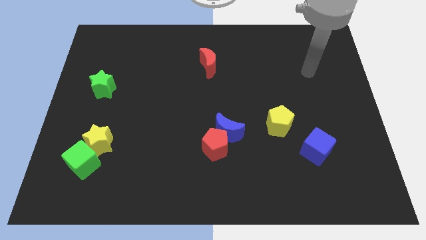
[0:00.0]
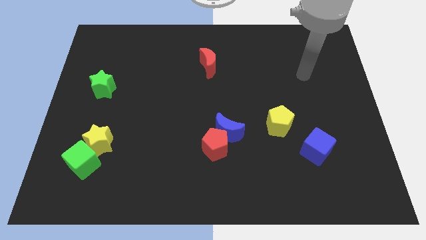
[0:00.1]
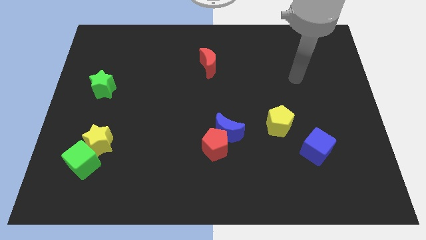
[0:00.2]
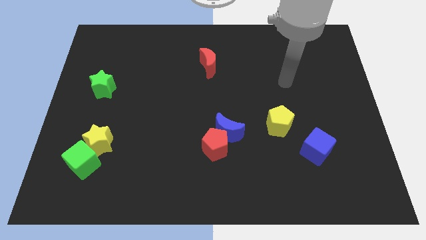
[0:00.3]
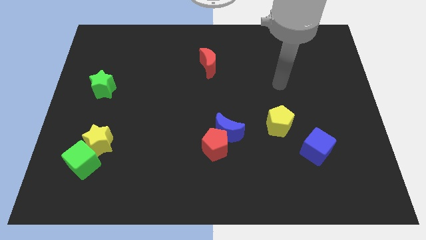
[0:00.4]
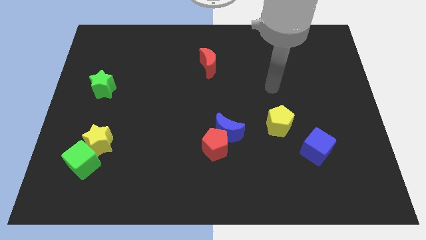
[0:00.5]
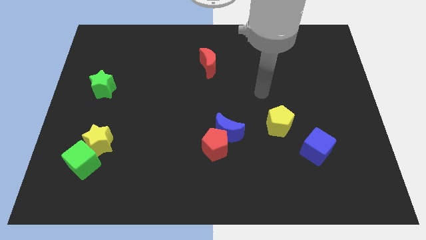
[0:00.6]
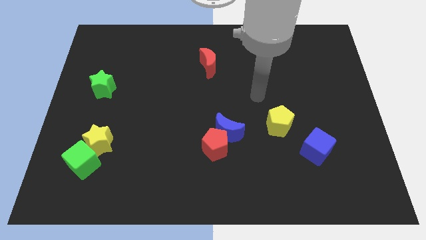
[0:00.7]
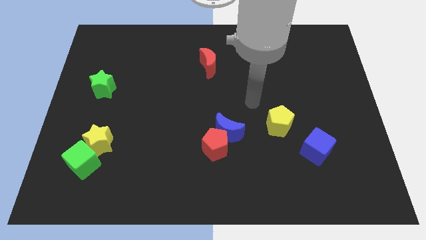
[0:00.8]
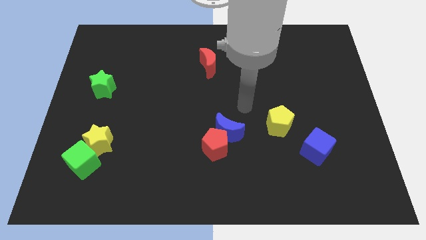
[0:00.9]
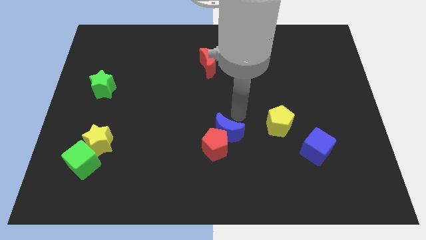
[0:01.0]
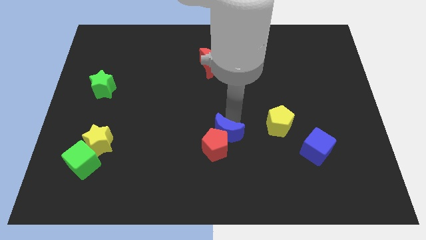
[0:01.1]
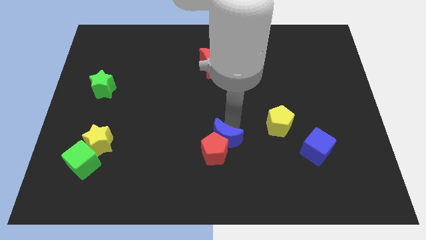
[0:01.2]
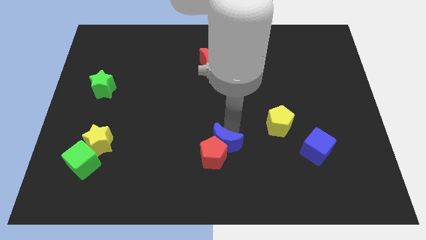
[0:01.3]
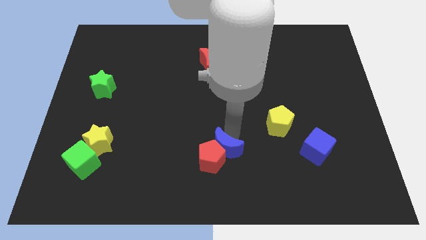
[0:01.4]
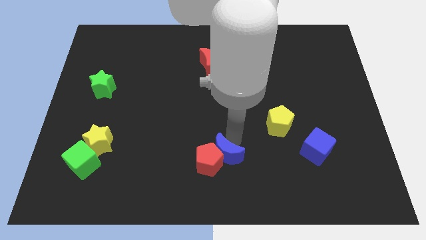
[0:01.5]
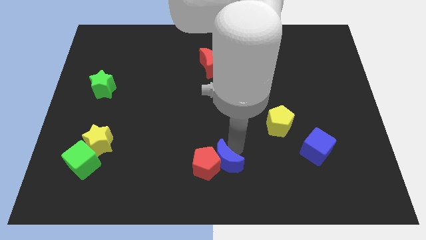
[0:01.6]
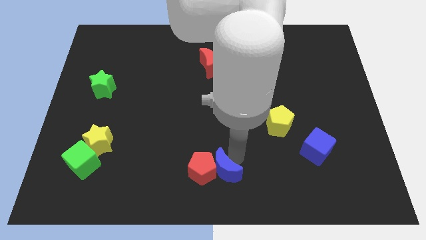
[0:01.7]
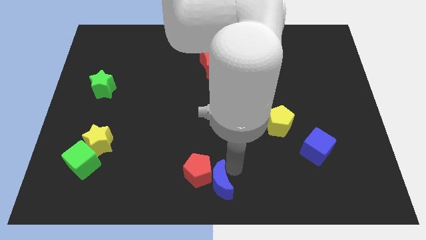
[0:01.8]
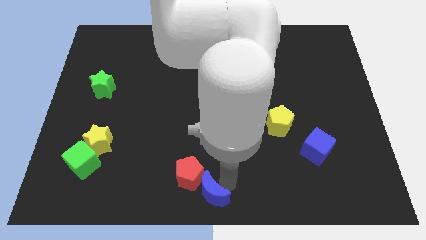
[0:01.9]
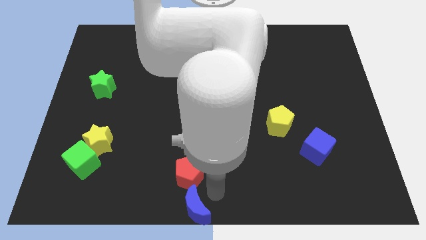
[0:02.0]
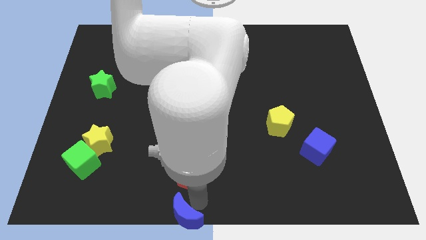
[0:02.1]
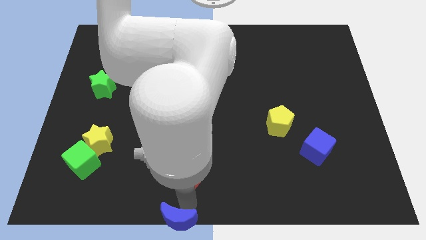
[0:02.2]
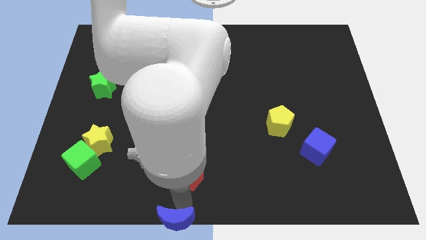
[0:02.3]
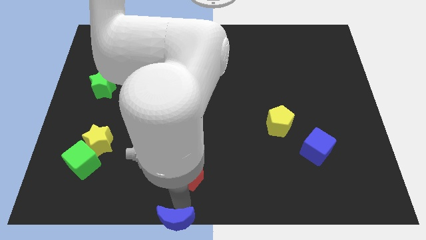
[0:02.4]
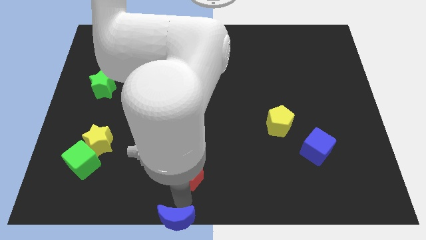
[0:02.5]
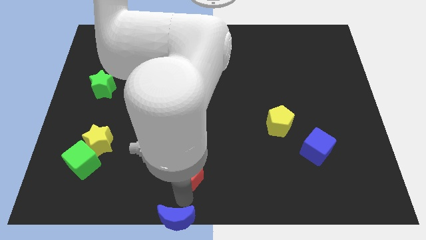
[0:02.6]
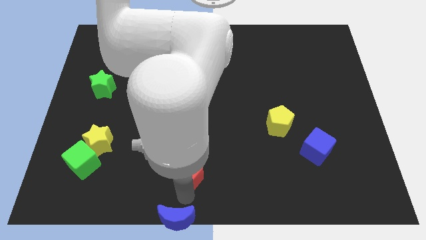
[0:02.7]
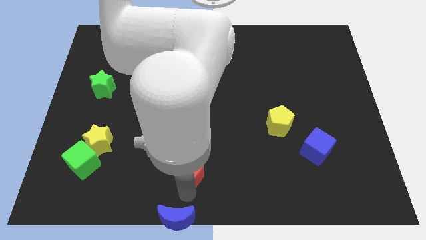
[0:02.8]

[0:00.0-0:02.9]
pull the red pentagon apart from the blue moon

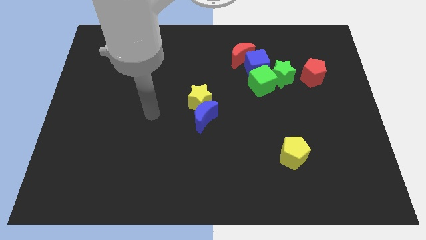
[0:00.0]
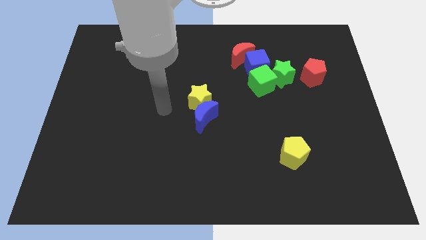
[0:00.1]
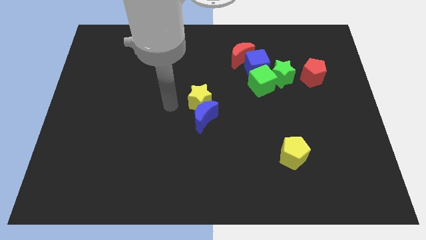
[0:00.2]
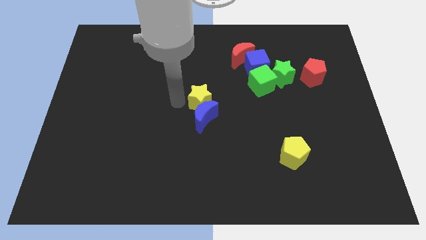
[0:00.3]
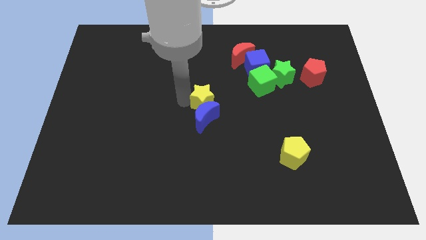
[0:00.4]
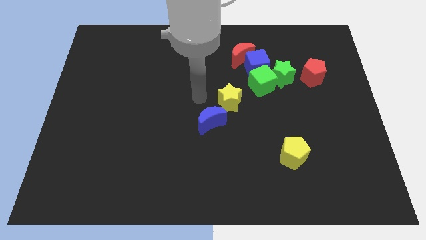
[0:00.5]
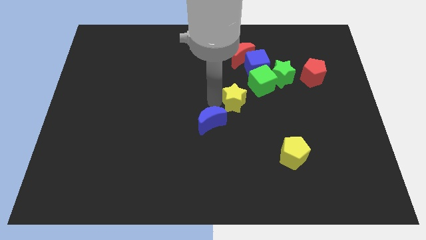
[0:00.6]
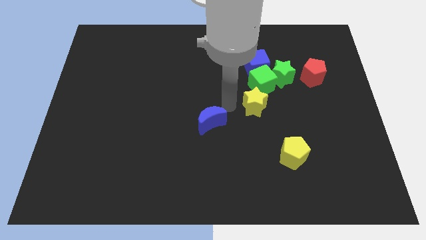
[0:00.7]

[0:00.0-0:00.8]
pull the blue moon apart from the yellow star

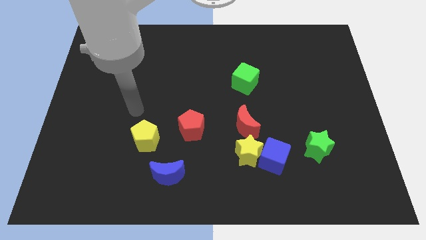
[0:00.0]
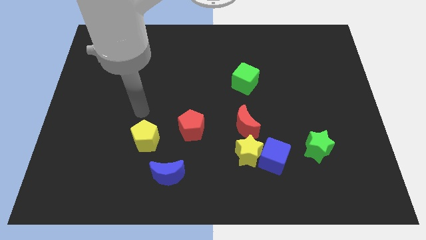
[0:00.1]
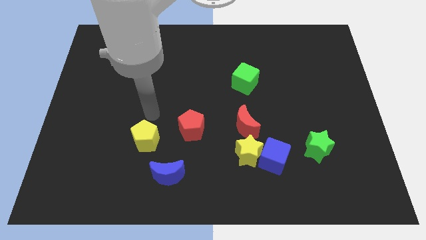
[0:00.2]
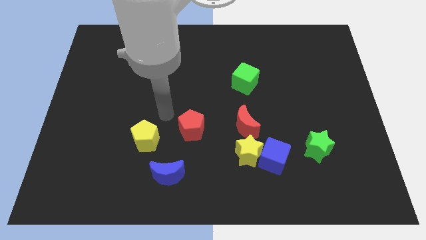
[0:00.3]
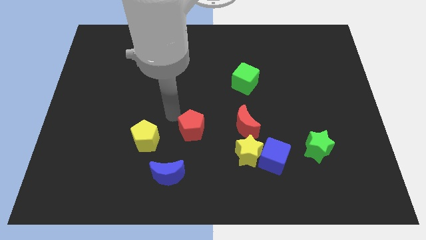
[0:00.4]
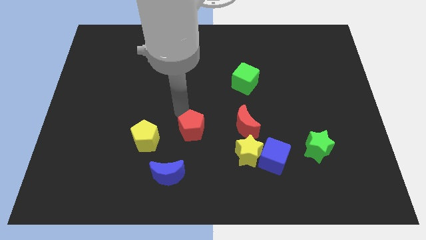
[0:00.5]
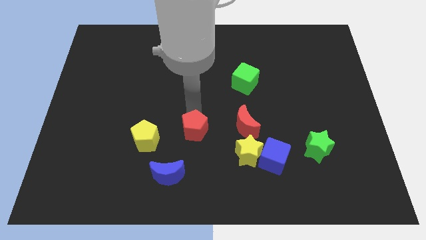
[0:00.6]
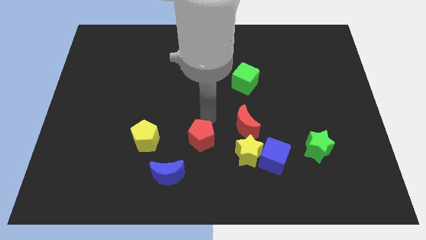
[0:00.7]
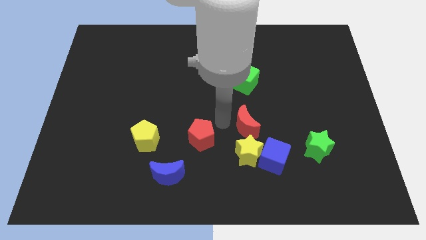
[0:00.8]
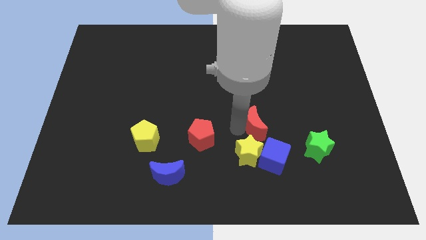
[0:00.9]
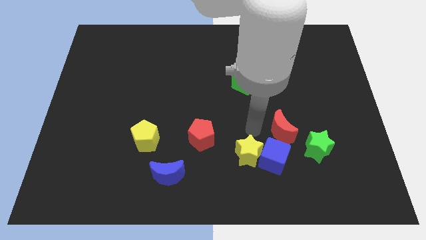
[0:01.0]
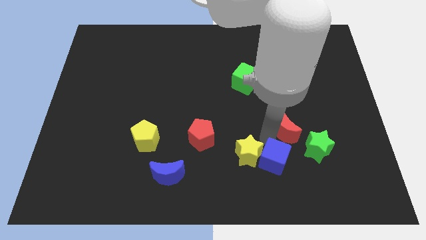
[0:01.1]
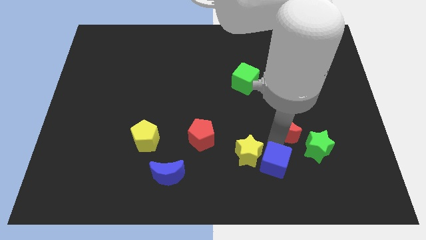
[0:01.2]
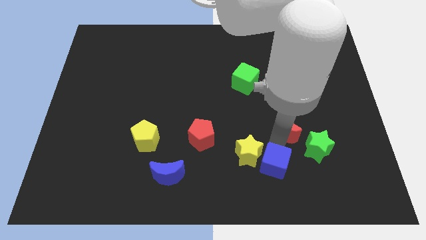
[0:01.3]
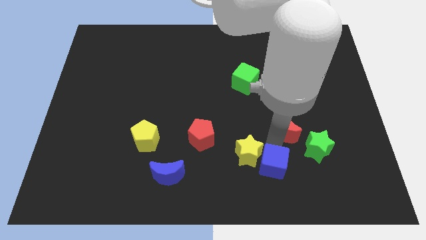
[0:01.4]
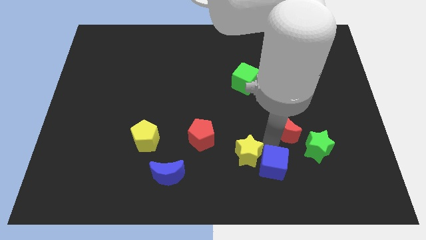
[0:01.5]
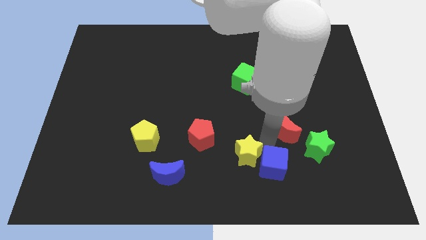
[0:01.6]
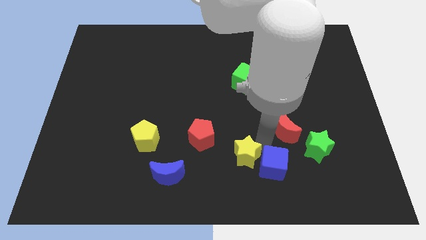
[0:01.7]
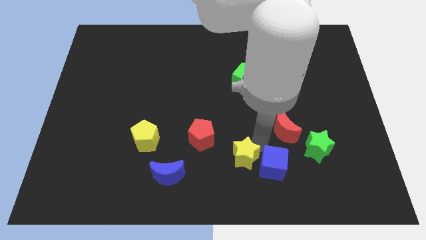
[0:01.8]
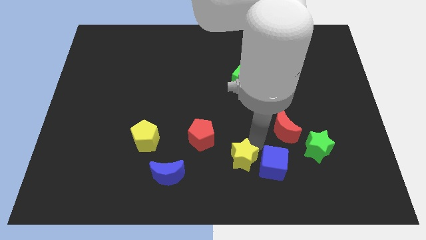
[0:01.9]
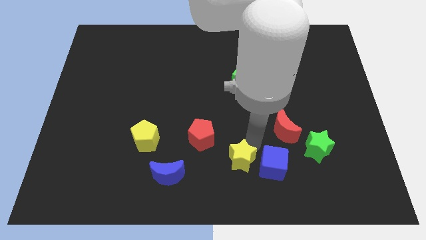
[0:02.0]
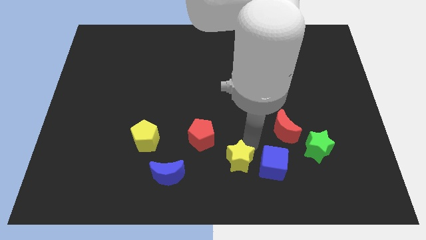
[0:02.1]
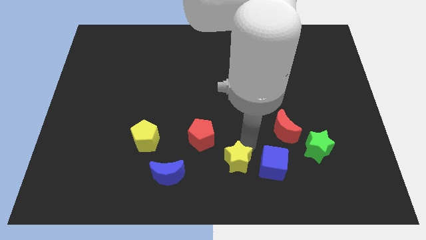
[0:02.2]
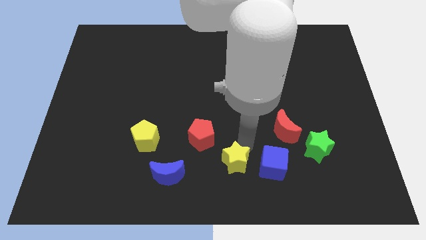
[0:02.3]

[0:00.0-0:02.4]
separate the yellow star from the blue cube and red moon

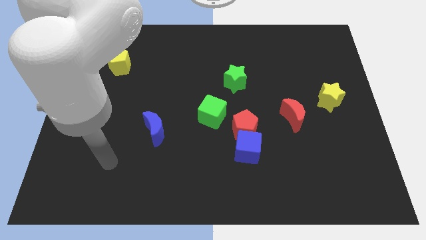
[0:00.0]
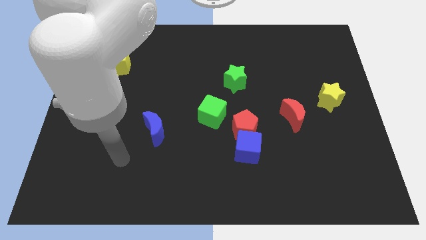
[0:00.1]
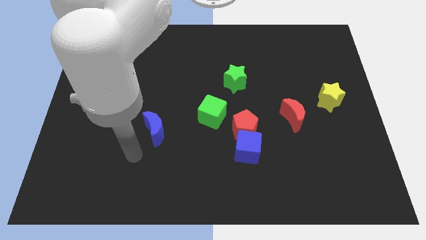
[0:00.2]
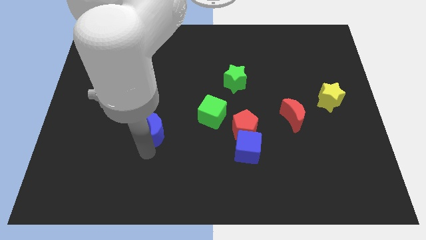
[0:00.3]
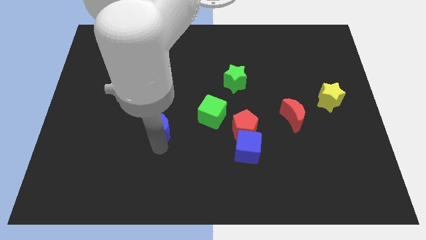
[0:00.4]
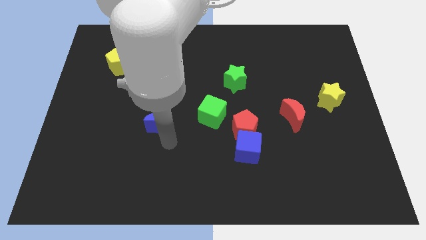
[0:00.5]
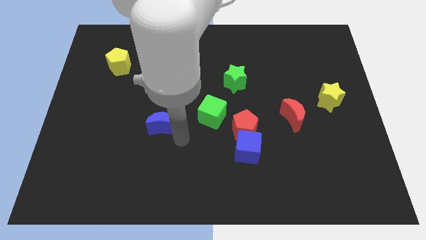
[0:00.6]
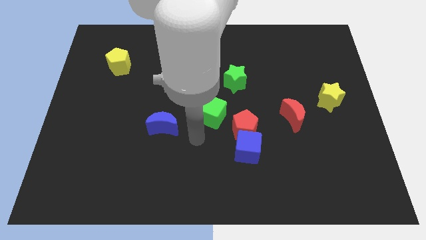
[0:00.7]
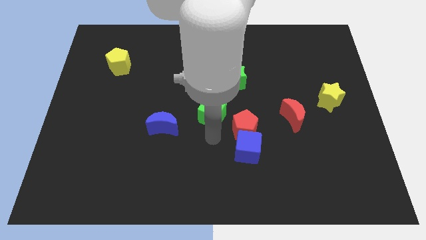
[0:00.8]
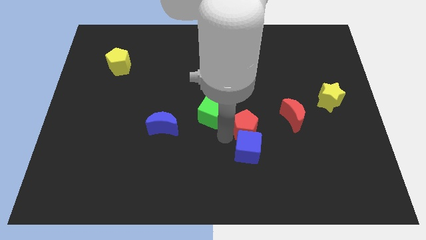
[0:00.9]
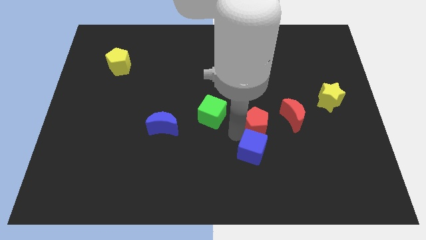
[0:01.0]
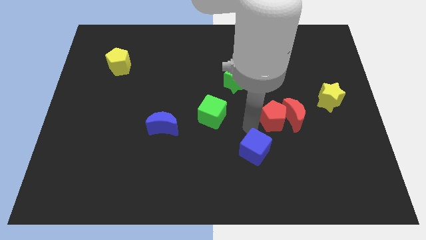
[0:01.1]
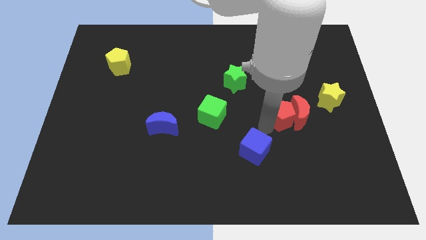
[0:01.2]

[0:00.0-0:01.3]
separate the blue cube from the red pentagon

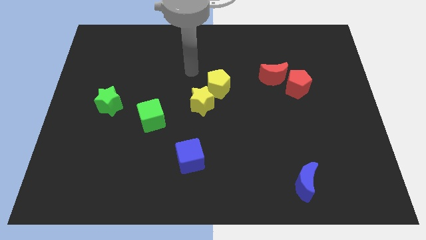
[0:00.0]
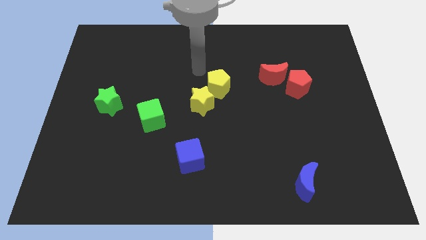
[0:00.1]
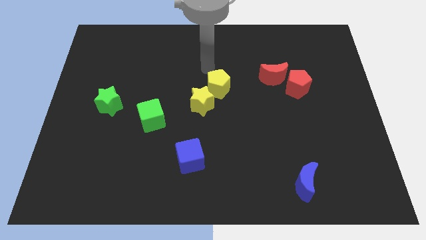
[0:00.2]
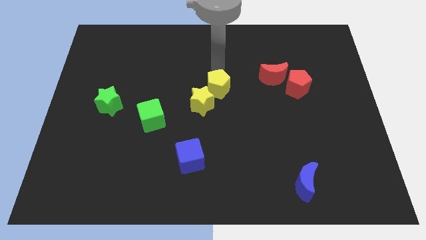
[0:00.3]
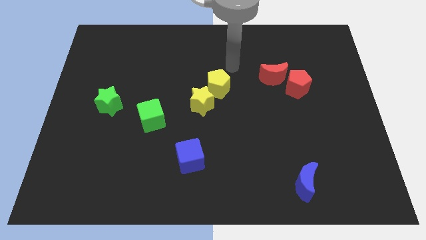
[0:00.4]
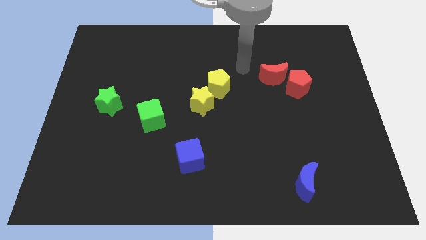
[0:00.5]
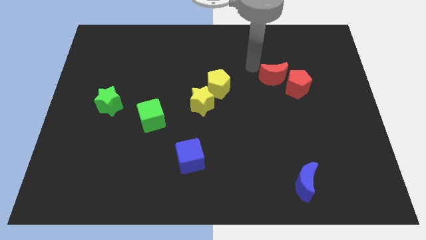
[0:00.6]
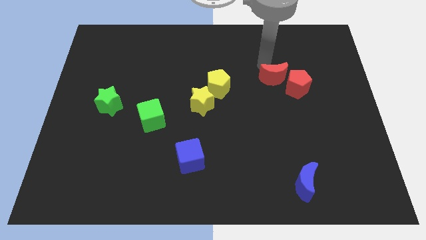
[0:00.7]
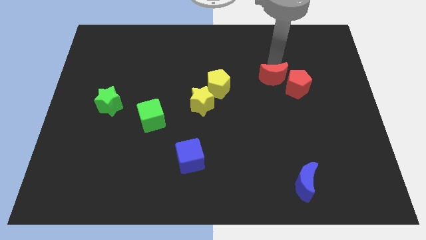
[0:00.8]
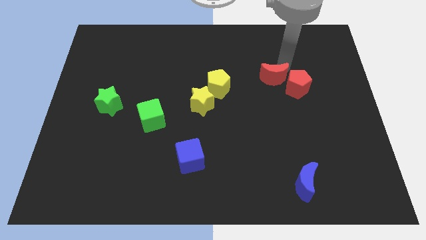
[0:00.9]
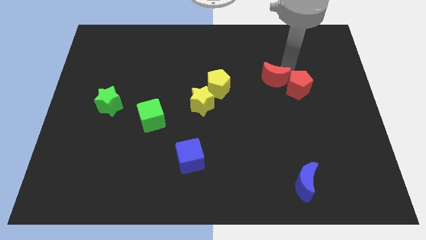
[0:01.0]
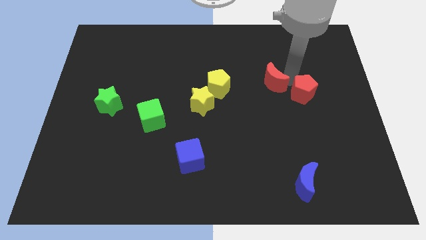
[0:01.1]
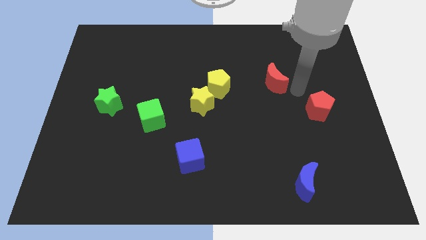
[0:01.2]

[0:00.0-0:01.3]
move the red moon away from the red pentagon

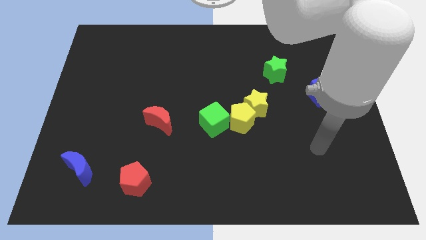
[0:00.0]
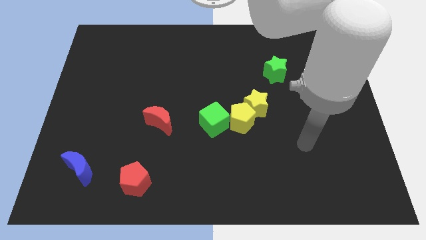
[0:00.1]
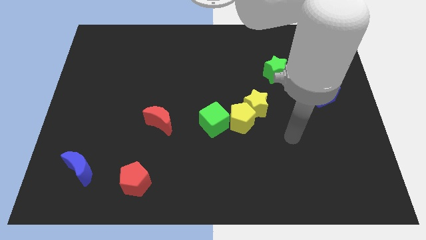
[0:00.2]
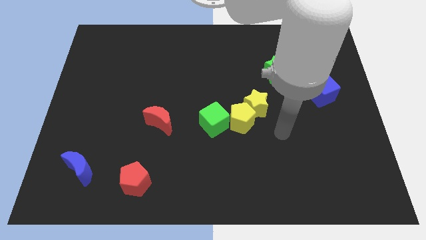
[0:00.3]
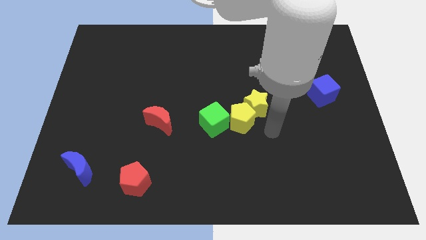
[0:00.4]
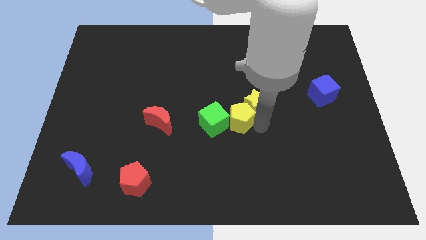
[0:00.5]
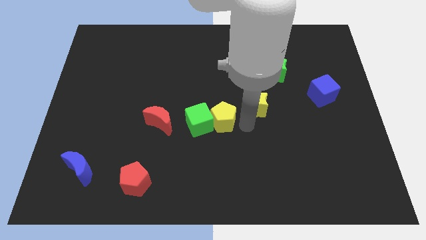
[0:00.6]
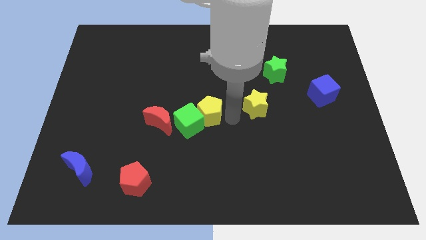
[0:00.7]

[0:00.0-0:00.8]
separate the yellow star from the yellow pentagon

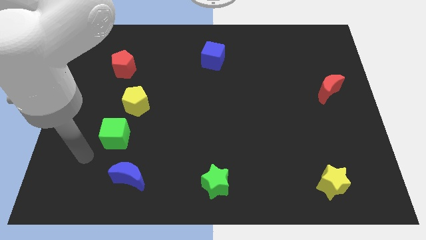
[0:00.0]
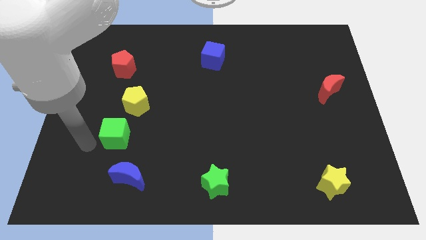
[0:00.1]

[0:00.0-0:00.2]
separate the green cube from the yellow pentagon
